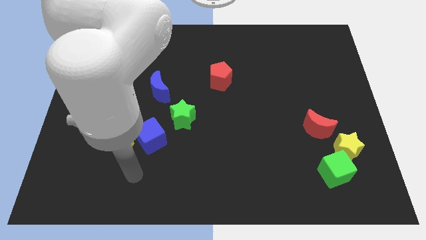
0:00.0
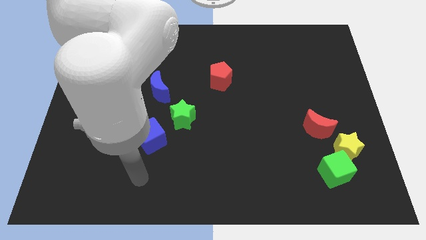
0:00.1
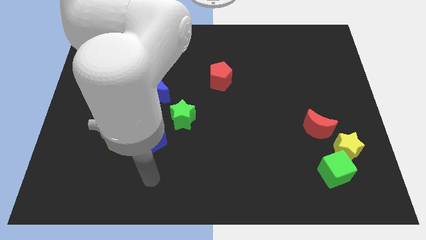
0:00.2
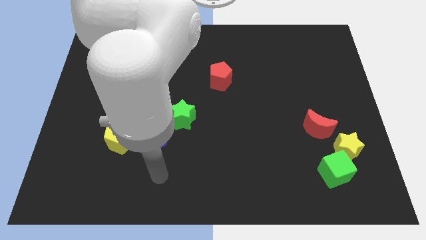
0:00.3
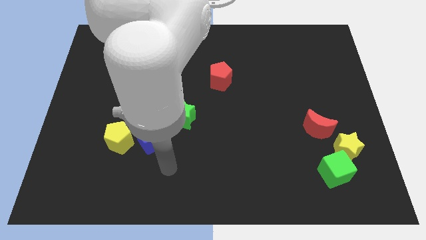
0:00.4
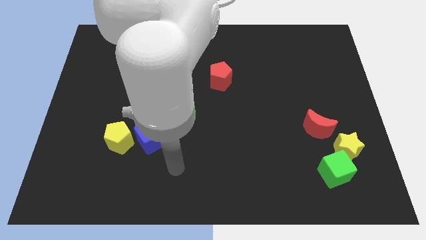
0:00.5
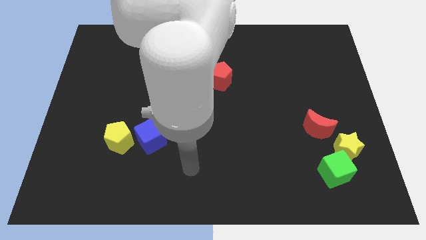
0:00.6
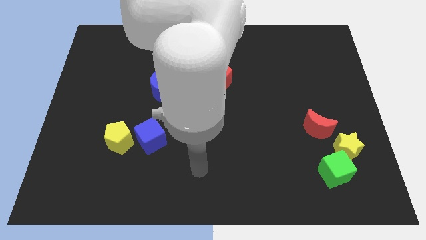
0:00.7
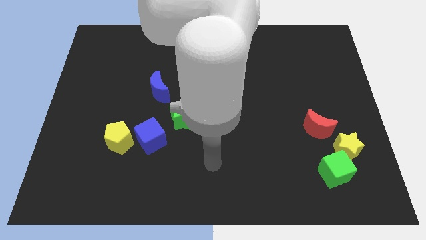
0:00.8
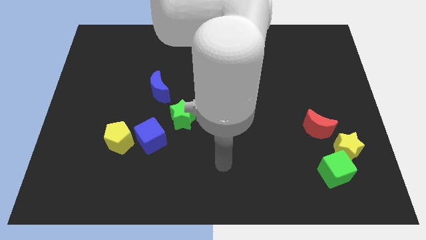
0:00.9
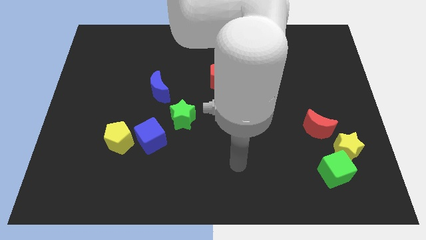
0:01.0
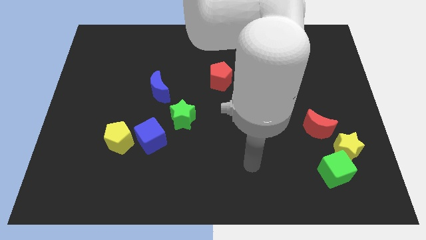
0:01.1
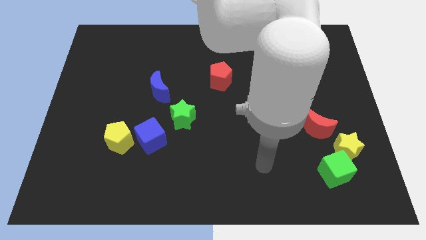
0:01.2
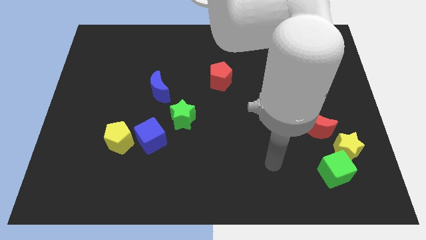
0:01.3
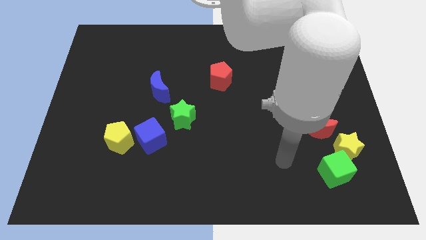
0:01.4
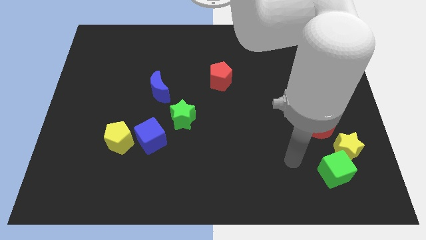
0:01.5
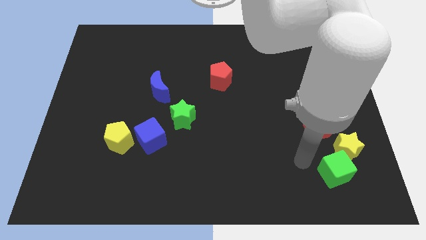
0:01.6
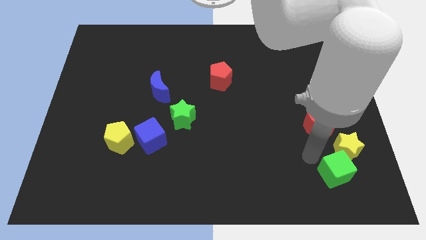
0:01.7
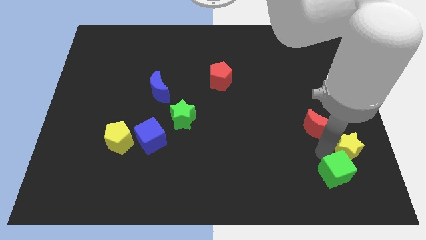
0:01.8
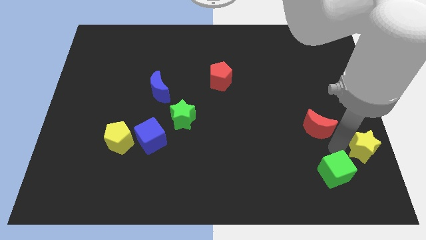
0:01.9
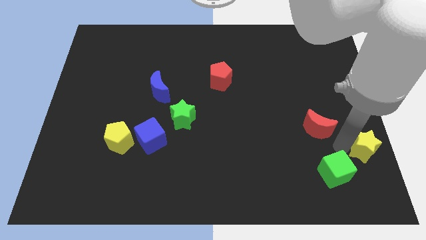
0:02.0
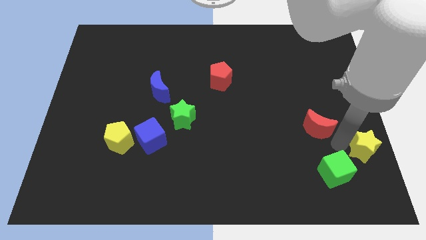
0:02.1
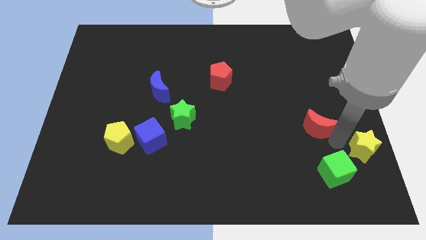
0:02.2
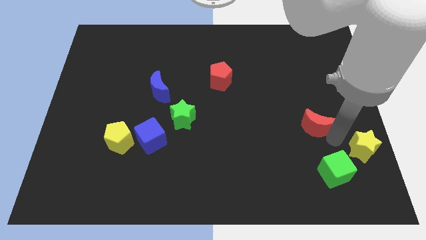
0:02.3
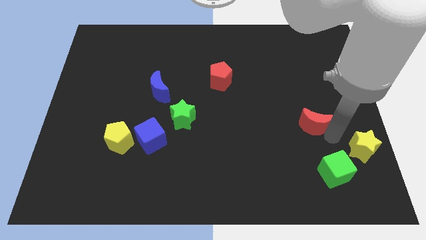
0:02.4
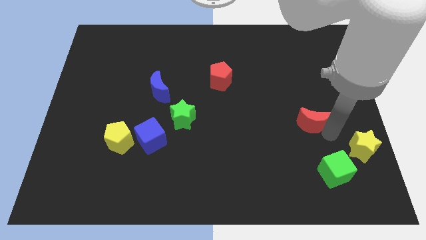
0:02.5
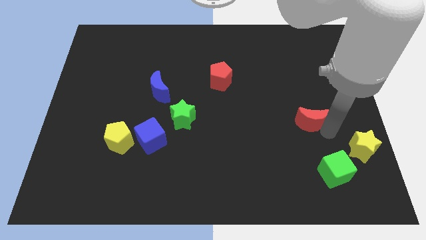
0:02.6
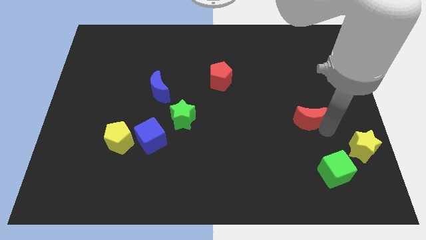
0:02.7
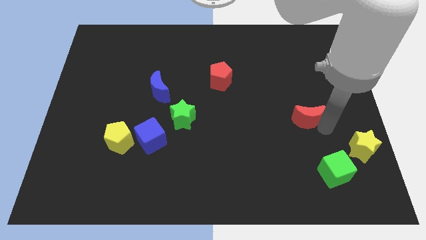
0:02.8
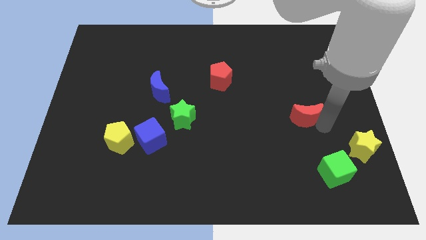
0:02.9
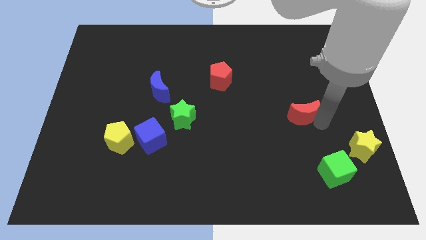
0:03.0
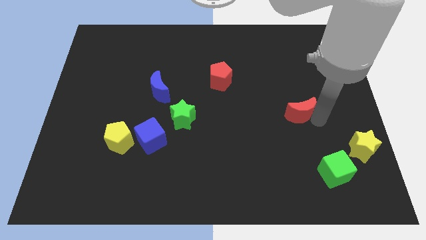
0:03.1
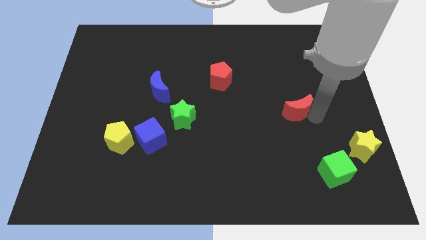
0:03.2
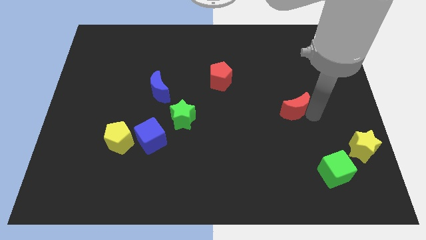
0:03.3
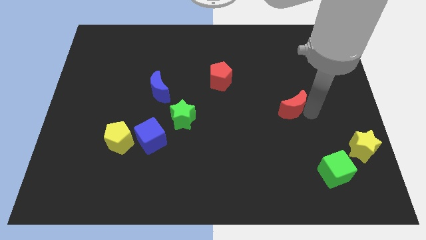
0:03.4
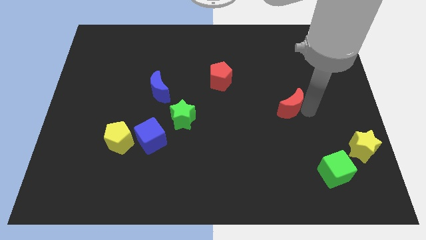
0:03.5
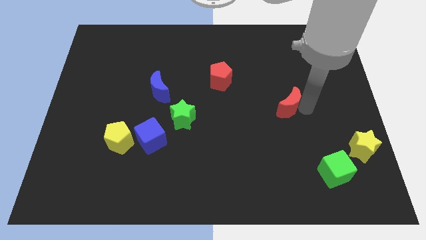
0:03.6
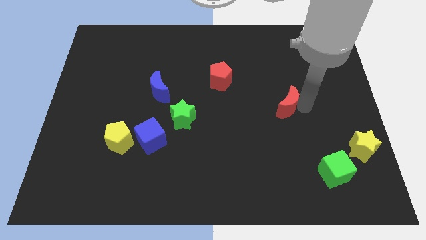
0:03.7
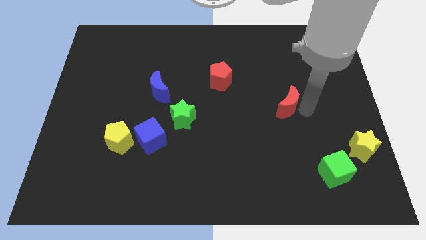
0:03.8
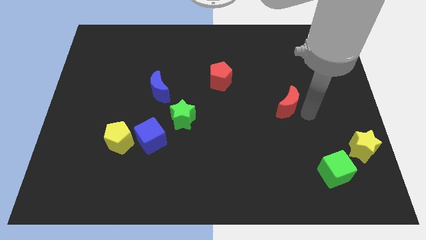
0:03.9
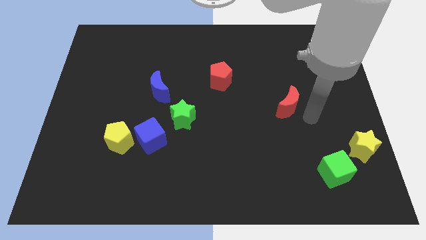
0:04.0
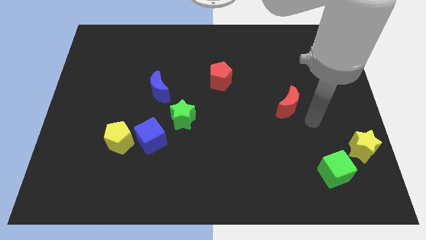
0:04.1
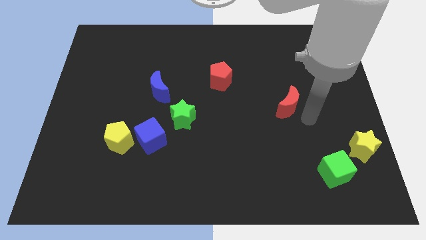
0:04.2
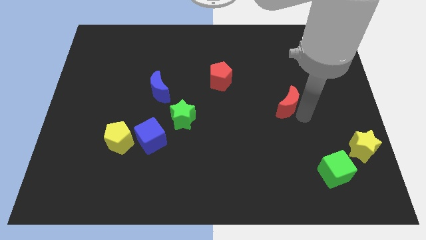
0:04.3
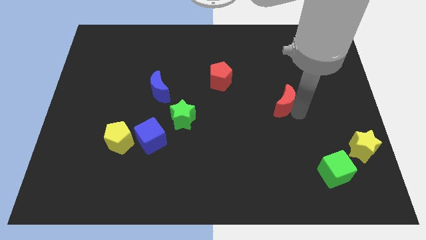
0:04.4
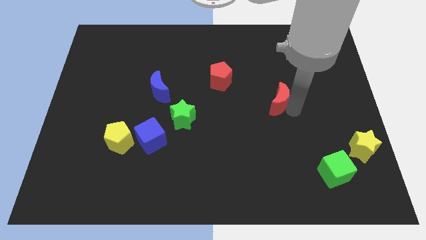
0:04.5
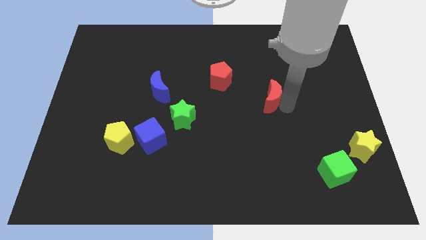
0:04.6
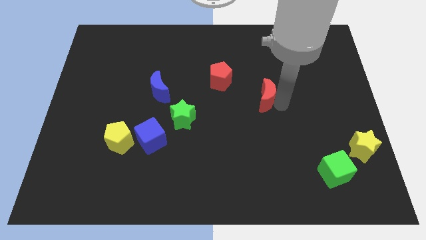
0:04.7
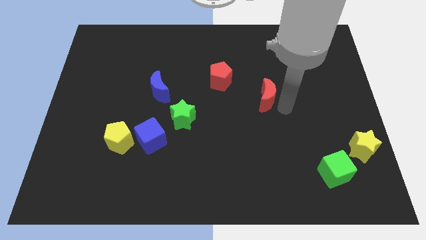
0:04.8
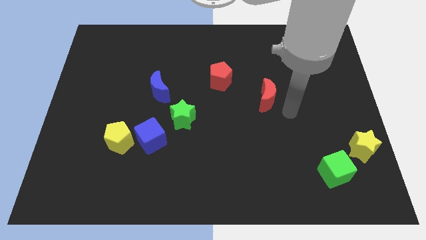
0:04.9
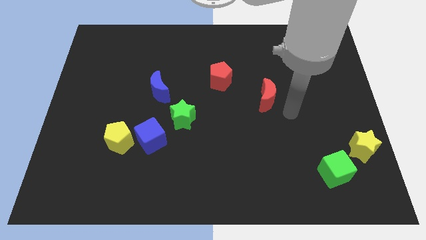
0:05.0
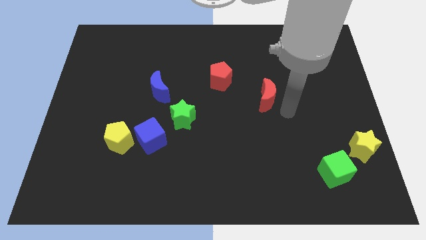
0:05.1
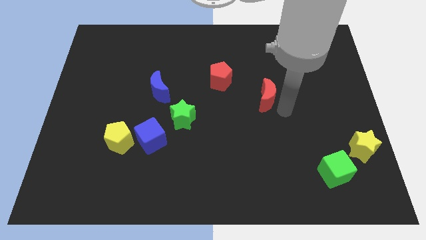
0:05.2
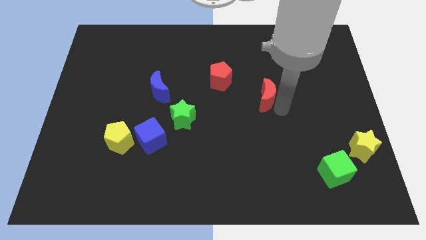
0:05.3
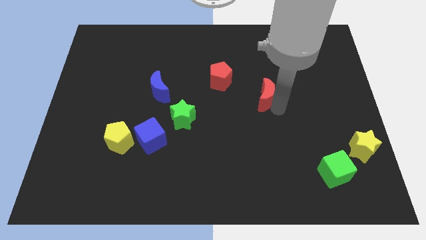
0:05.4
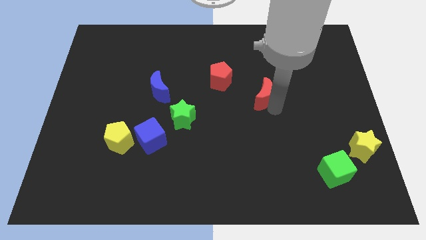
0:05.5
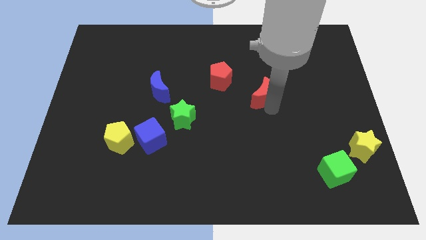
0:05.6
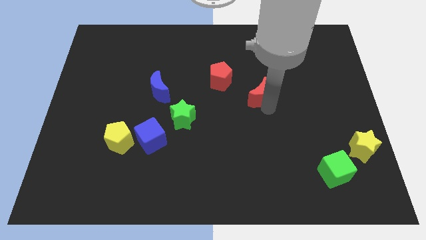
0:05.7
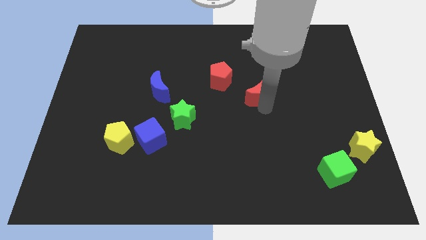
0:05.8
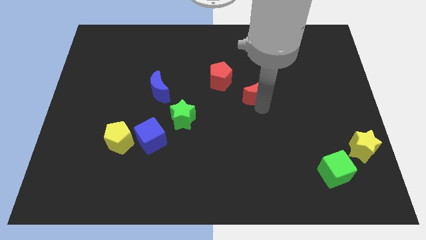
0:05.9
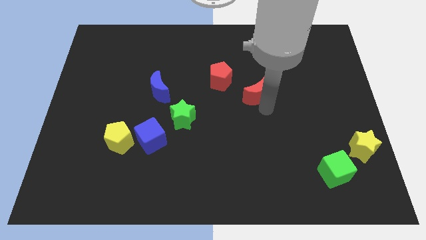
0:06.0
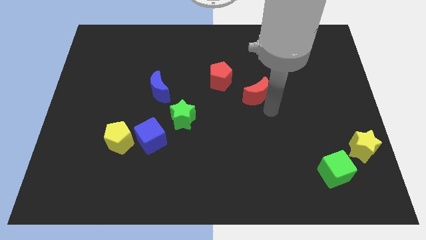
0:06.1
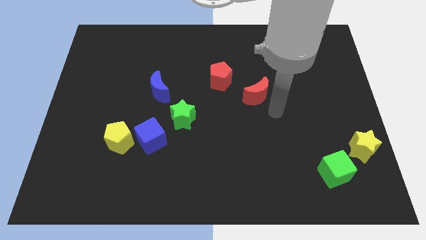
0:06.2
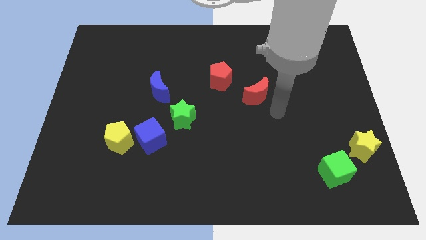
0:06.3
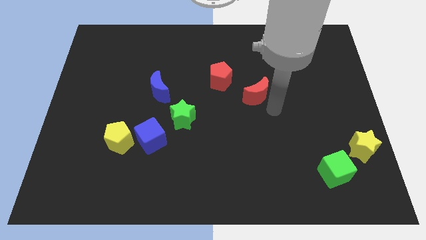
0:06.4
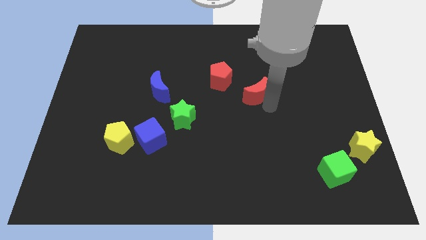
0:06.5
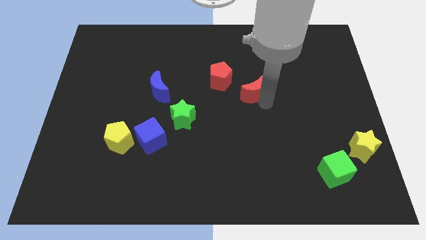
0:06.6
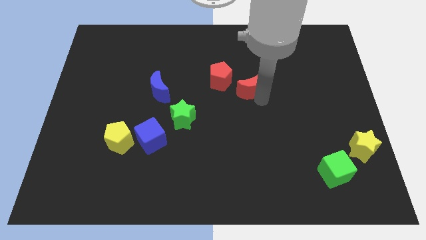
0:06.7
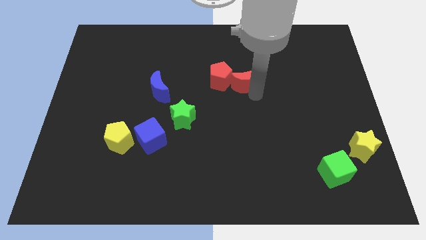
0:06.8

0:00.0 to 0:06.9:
move the red moon up and then to the left

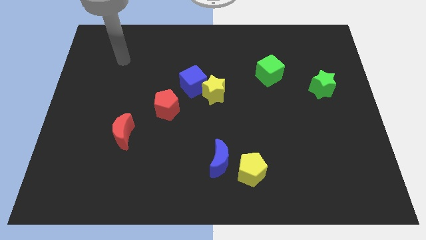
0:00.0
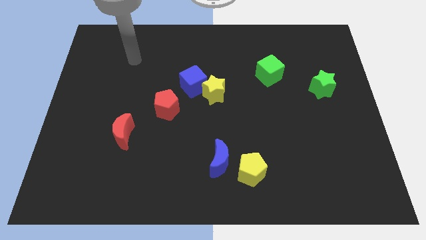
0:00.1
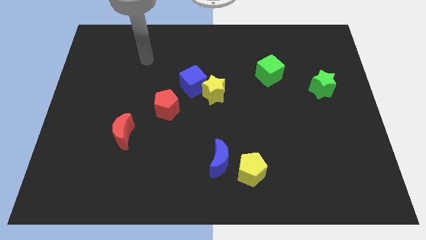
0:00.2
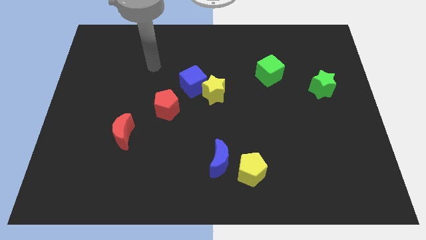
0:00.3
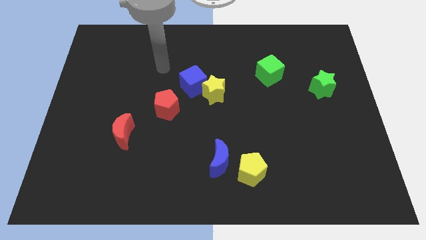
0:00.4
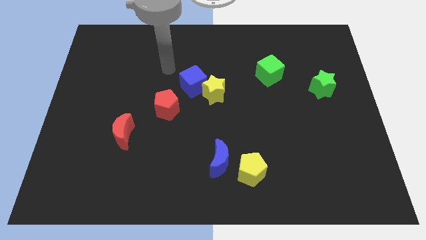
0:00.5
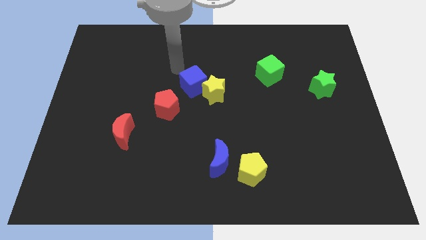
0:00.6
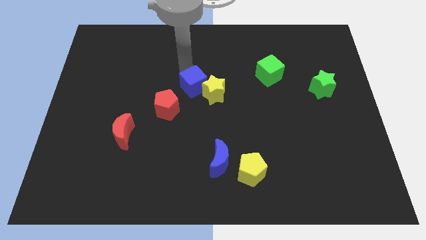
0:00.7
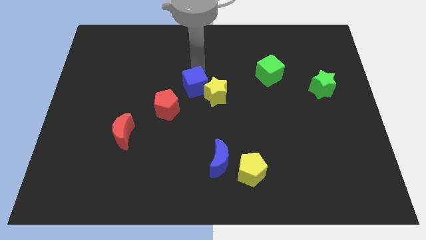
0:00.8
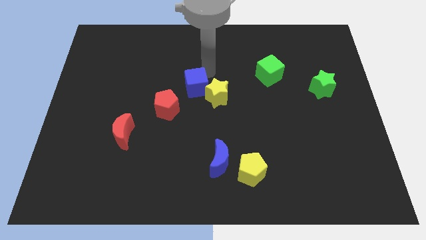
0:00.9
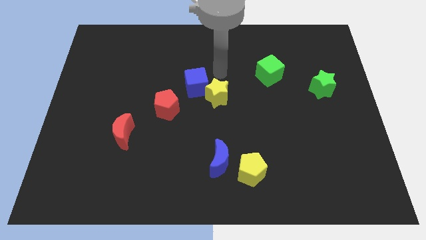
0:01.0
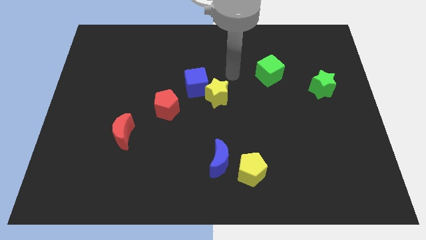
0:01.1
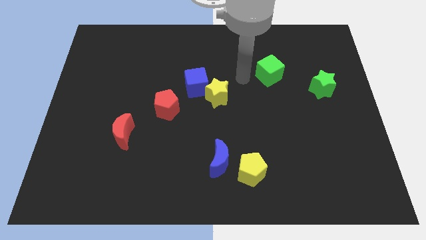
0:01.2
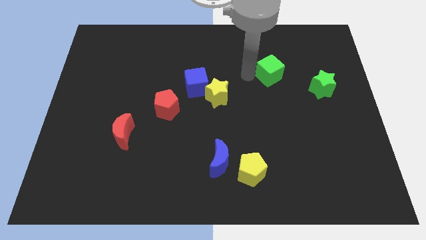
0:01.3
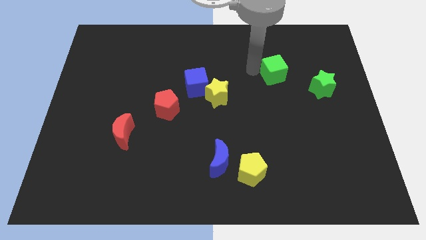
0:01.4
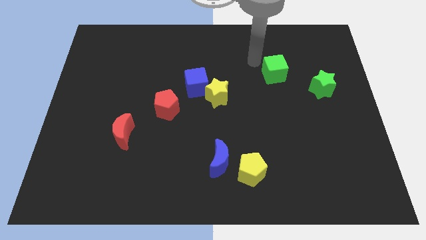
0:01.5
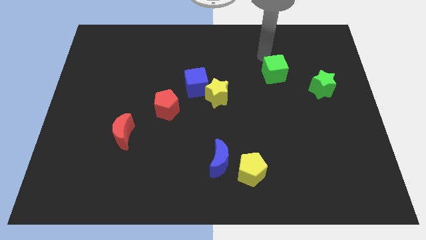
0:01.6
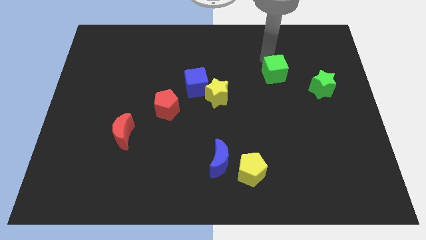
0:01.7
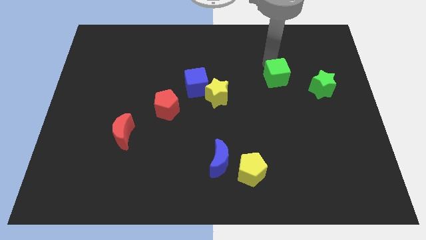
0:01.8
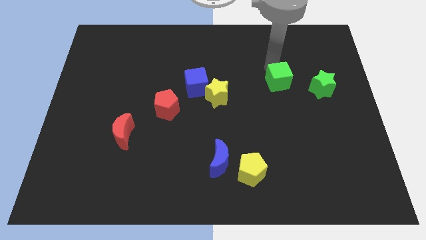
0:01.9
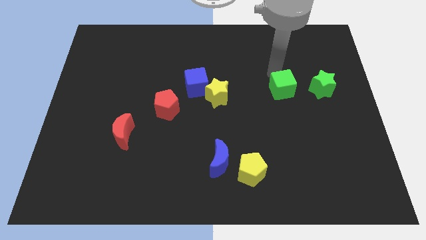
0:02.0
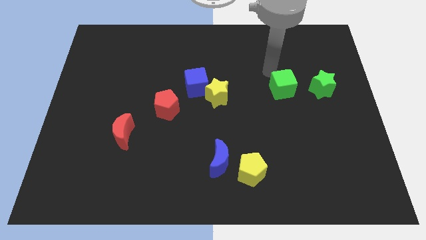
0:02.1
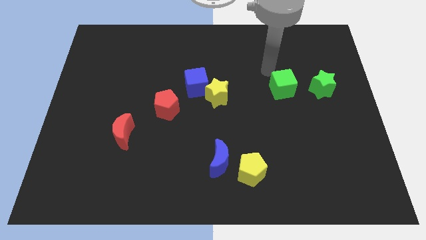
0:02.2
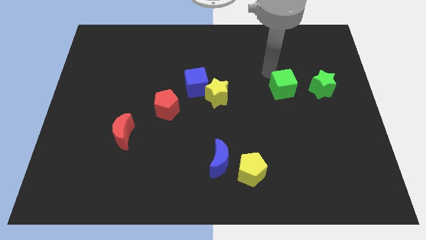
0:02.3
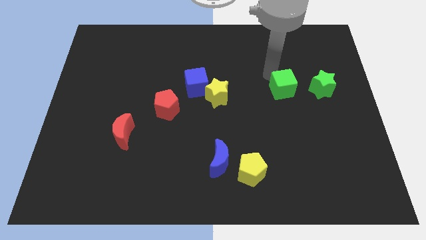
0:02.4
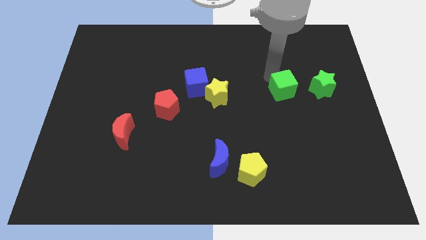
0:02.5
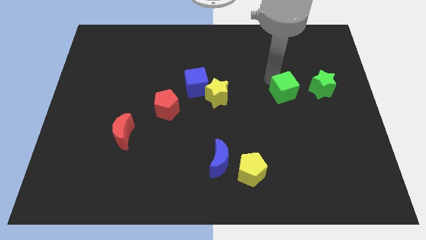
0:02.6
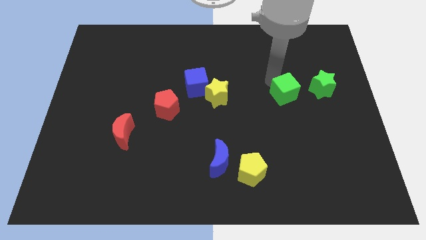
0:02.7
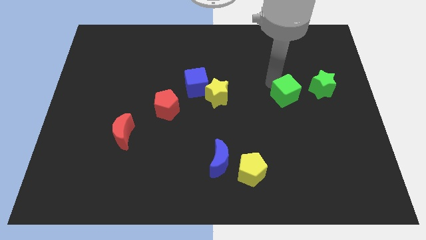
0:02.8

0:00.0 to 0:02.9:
move the green cube a bit downwards and to the right diagonally
